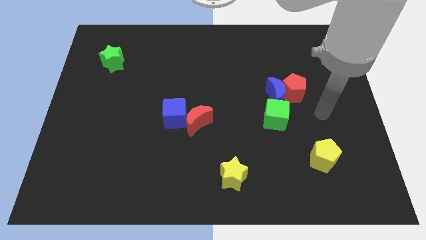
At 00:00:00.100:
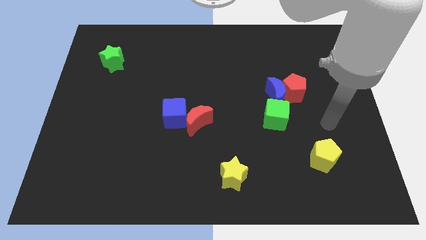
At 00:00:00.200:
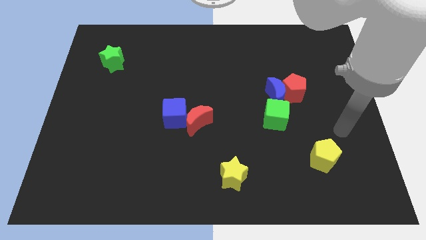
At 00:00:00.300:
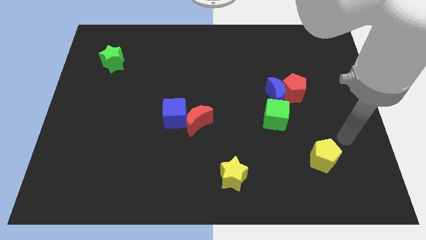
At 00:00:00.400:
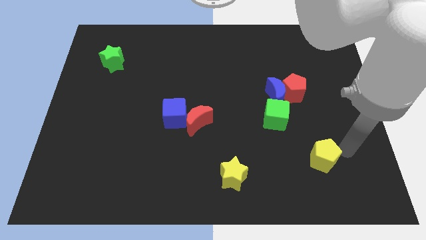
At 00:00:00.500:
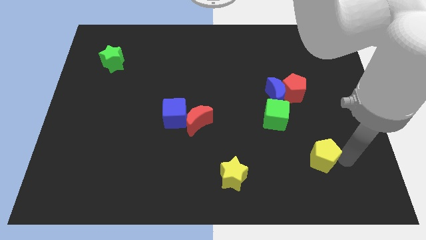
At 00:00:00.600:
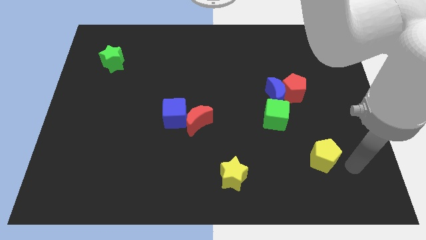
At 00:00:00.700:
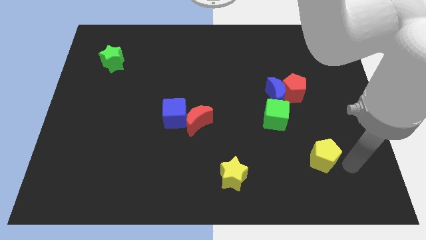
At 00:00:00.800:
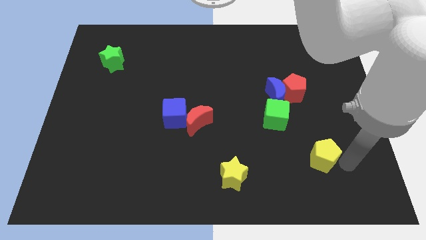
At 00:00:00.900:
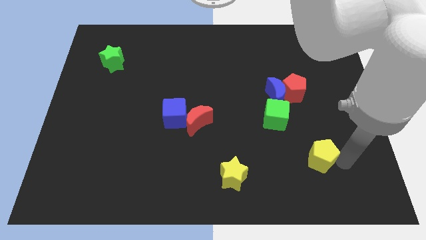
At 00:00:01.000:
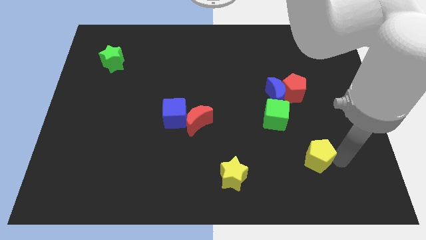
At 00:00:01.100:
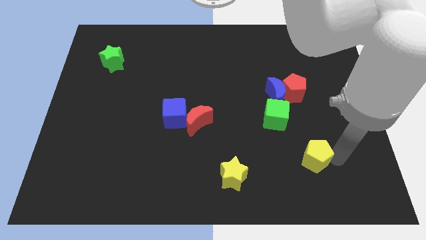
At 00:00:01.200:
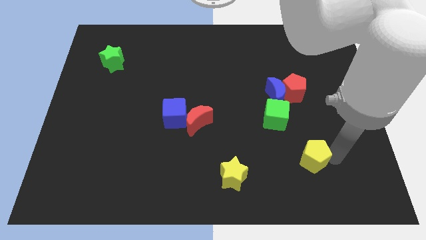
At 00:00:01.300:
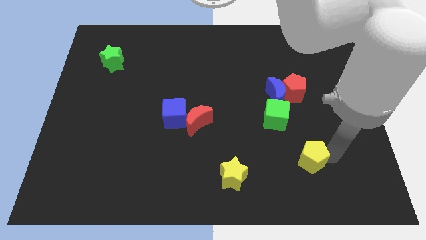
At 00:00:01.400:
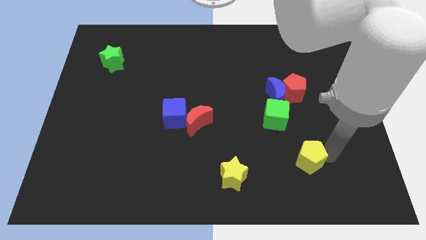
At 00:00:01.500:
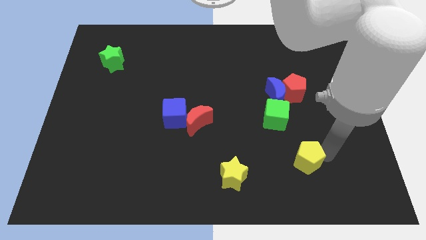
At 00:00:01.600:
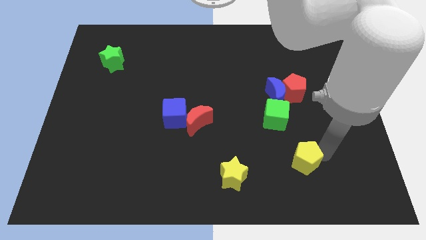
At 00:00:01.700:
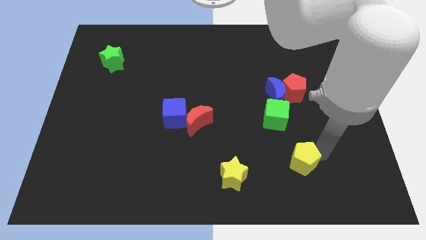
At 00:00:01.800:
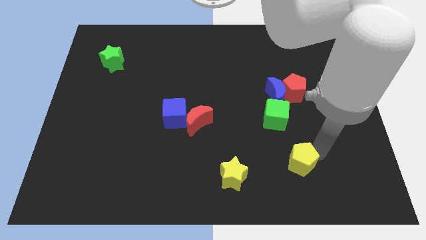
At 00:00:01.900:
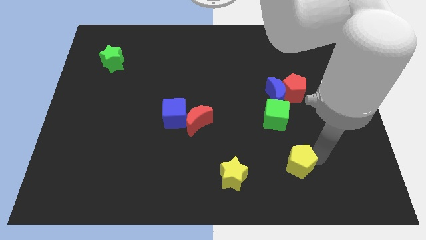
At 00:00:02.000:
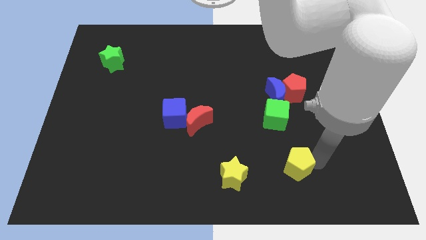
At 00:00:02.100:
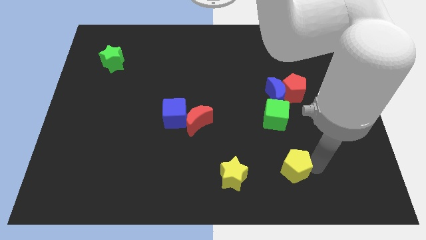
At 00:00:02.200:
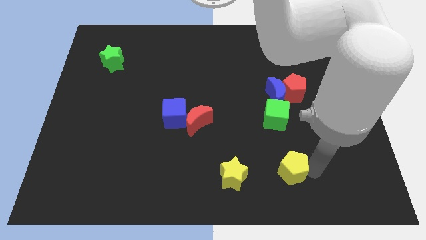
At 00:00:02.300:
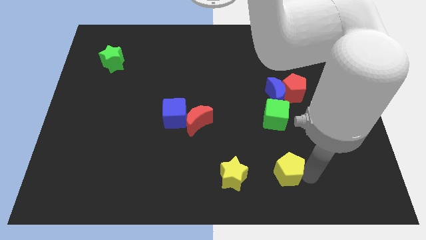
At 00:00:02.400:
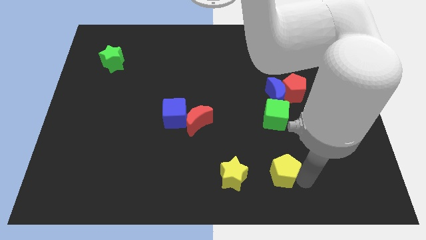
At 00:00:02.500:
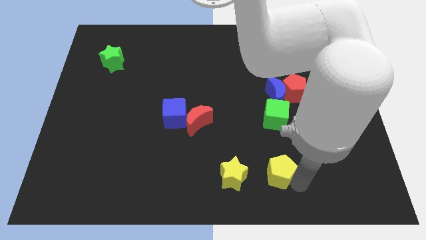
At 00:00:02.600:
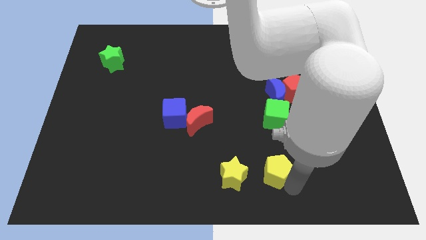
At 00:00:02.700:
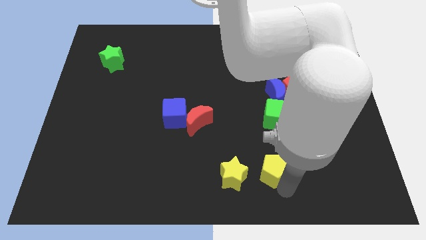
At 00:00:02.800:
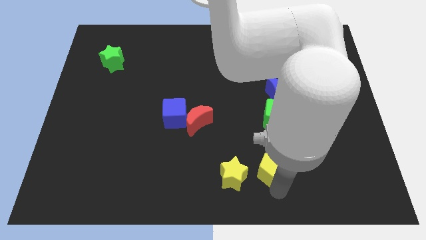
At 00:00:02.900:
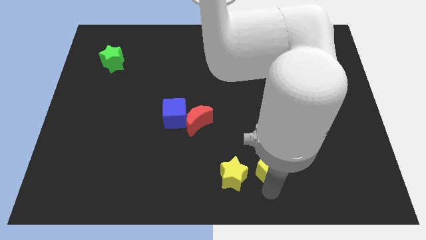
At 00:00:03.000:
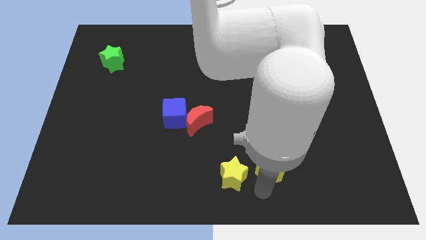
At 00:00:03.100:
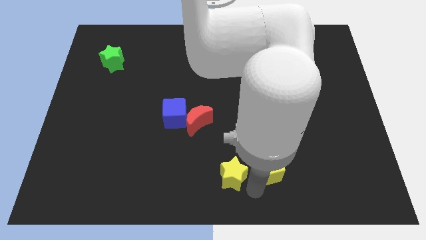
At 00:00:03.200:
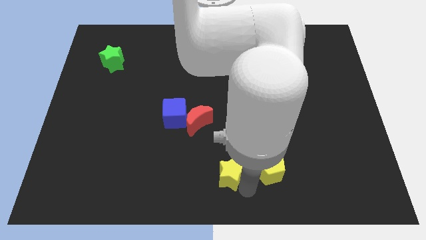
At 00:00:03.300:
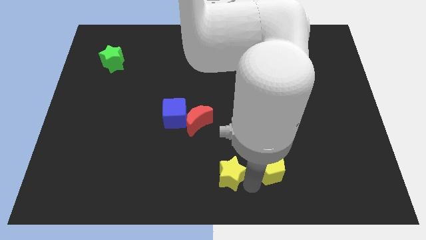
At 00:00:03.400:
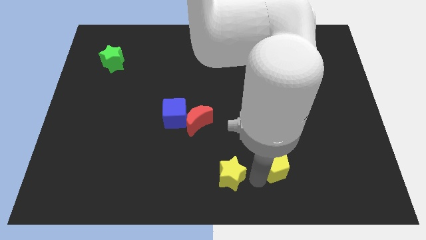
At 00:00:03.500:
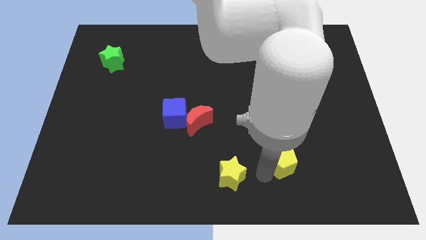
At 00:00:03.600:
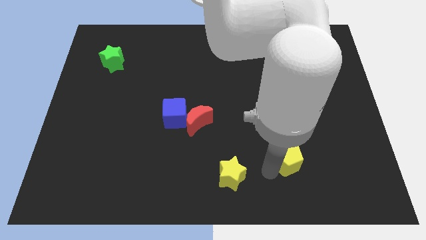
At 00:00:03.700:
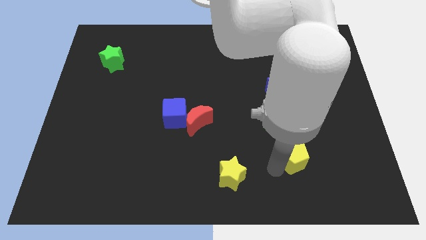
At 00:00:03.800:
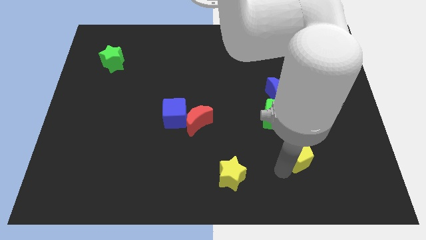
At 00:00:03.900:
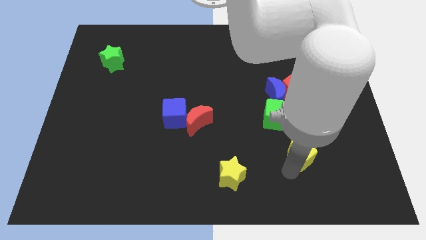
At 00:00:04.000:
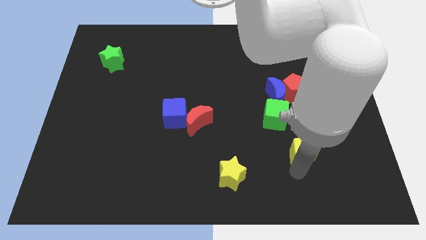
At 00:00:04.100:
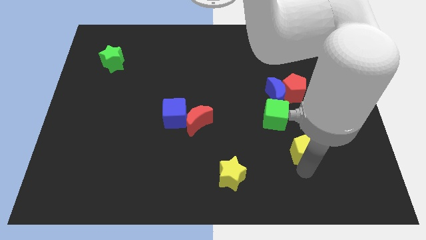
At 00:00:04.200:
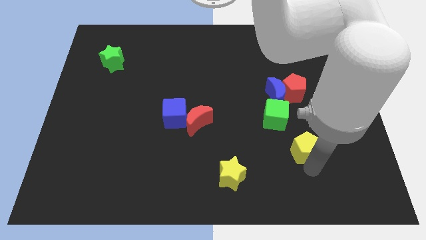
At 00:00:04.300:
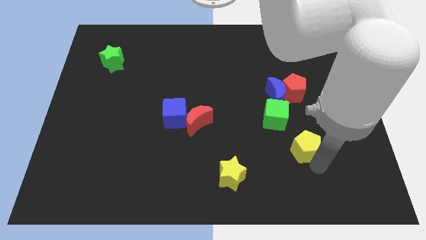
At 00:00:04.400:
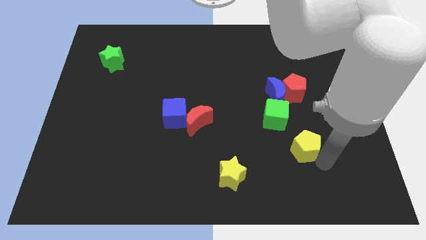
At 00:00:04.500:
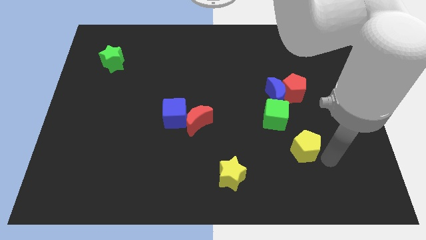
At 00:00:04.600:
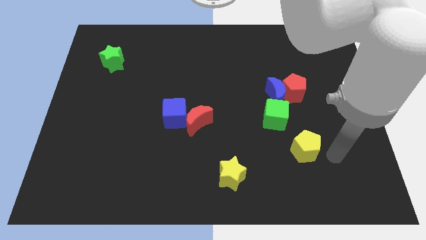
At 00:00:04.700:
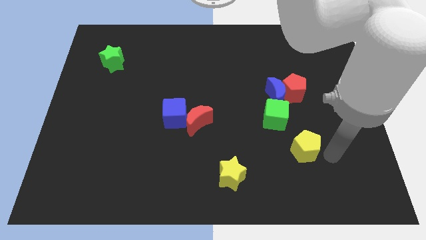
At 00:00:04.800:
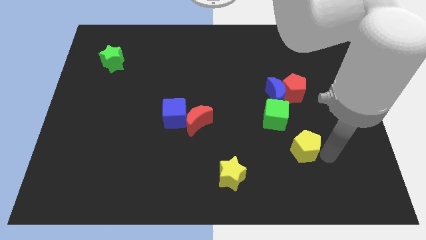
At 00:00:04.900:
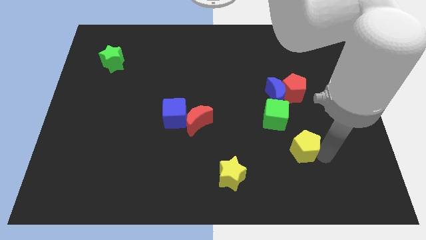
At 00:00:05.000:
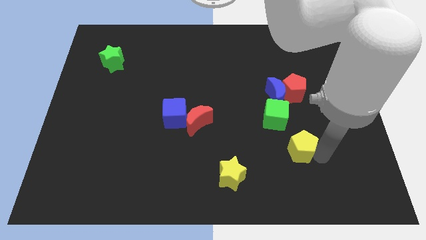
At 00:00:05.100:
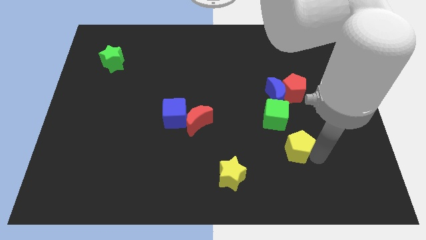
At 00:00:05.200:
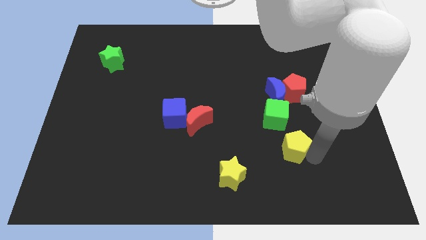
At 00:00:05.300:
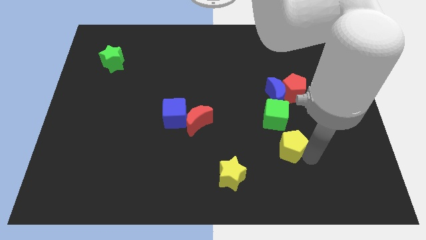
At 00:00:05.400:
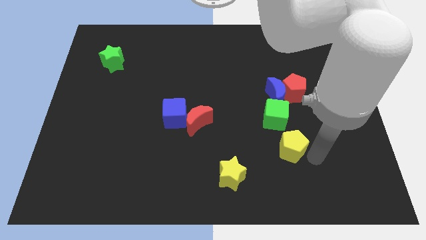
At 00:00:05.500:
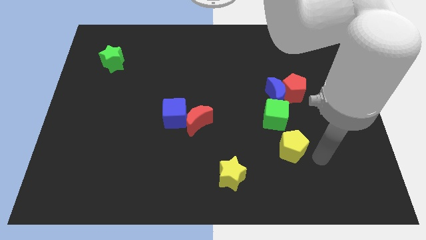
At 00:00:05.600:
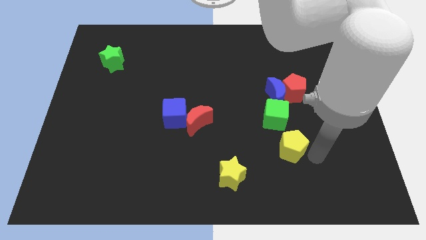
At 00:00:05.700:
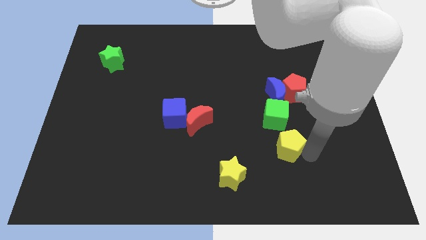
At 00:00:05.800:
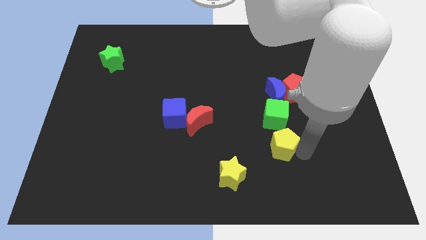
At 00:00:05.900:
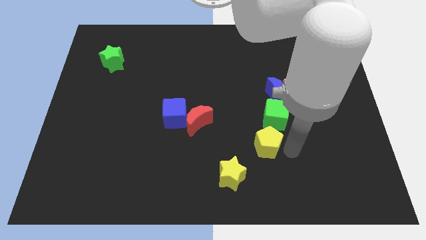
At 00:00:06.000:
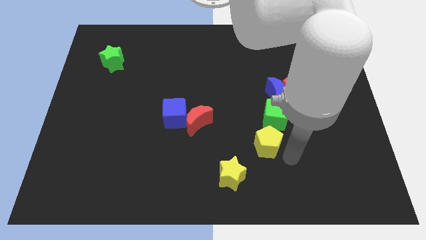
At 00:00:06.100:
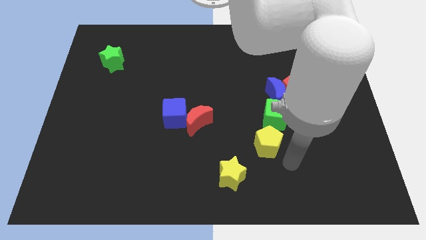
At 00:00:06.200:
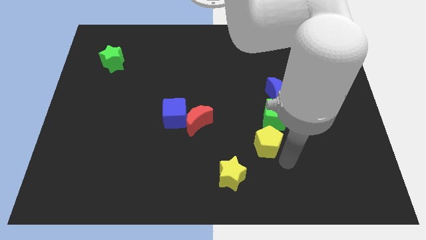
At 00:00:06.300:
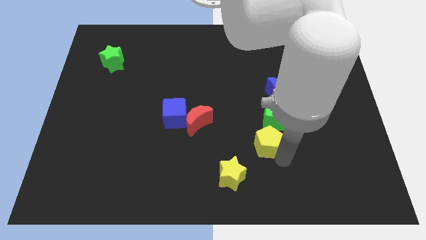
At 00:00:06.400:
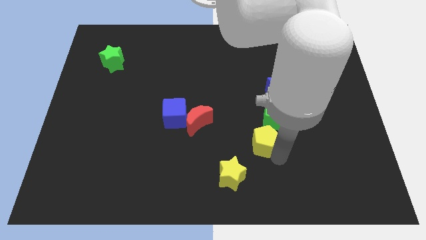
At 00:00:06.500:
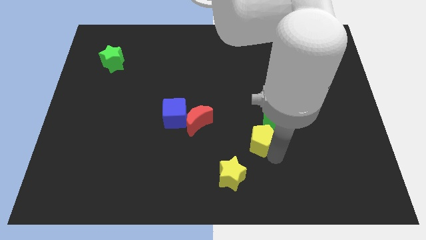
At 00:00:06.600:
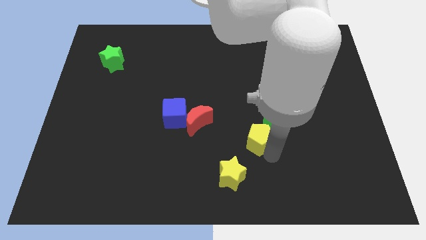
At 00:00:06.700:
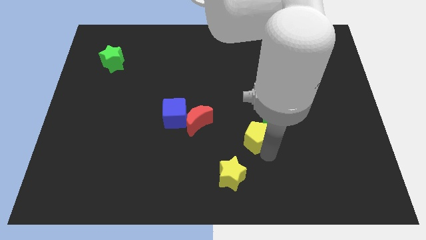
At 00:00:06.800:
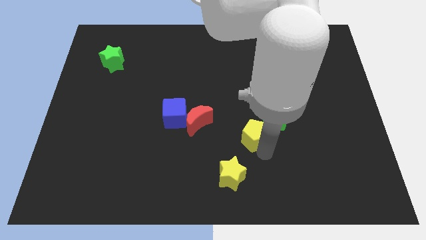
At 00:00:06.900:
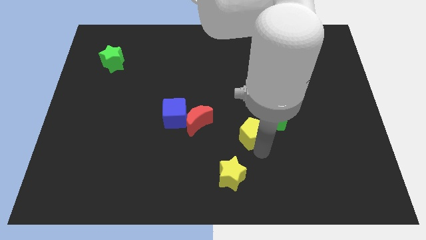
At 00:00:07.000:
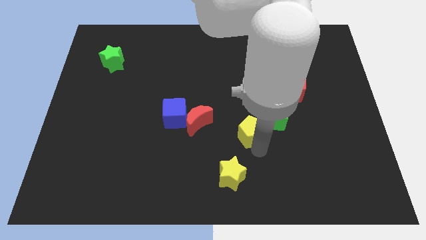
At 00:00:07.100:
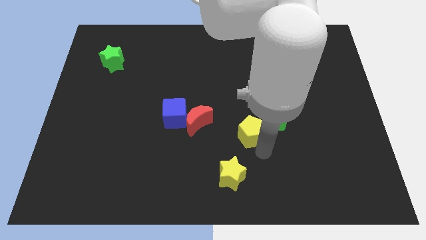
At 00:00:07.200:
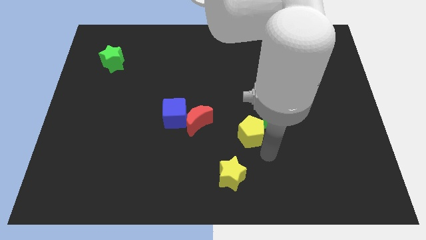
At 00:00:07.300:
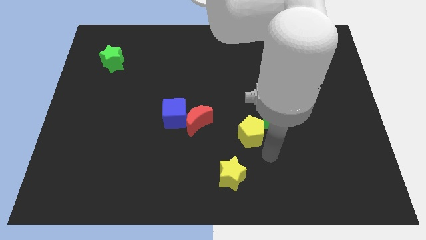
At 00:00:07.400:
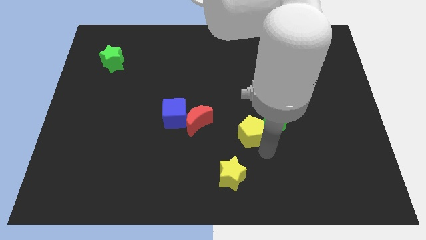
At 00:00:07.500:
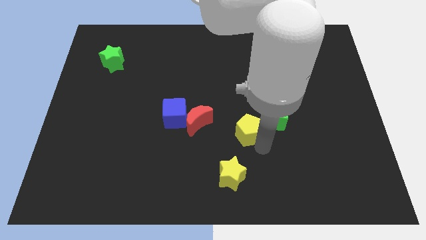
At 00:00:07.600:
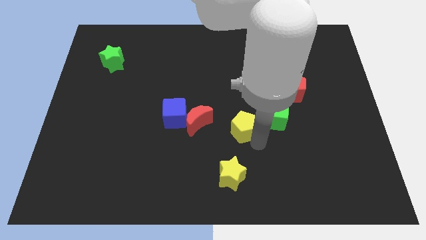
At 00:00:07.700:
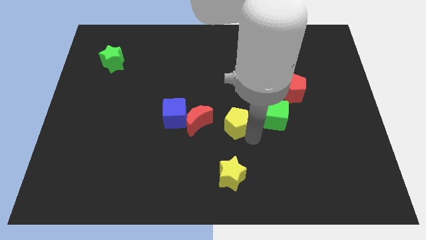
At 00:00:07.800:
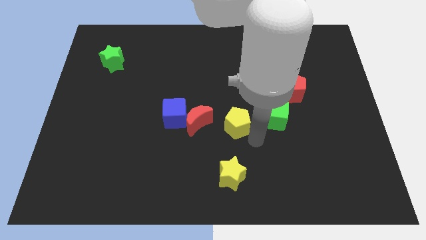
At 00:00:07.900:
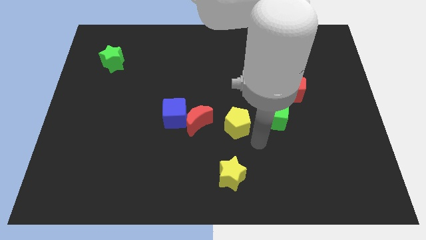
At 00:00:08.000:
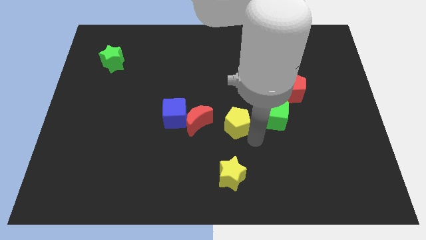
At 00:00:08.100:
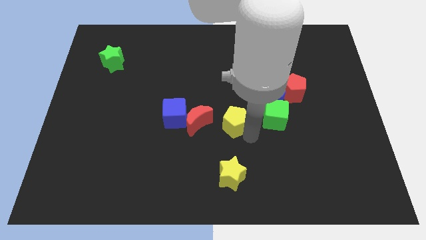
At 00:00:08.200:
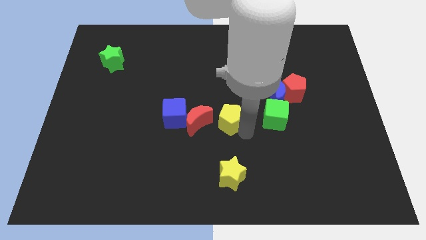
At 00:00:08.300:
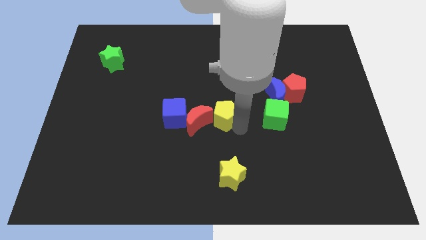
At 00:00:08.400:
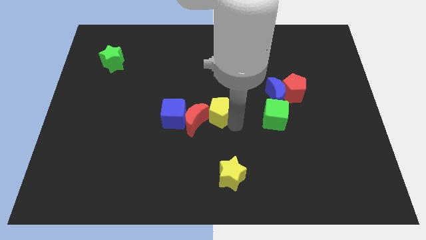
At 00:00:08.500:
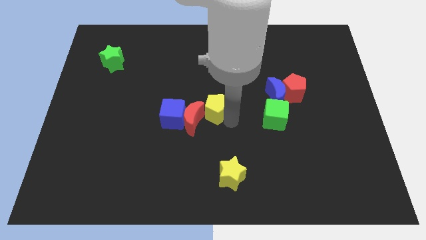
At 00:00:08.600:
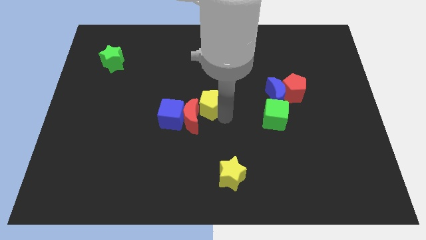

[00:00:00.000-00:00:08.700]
push the yellow pentagon to the top right side of the blue cube
